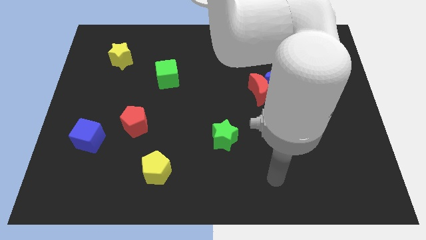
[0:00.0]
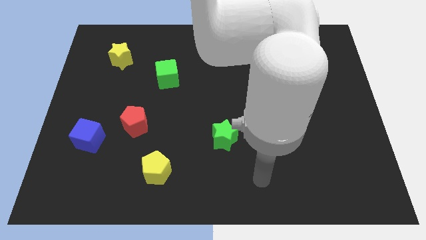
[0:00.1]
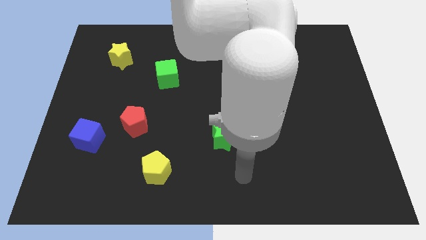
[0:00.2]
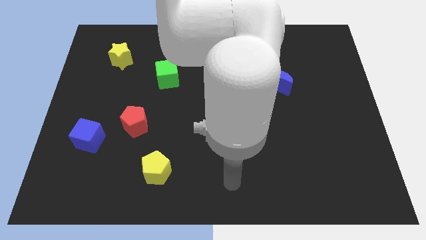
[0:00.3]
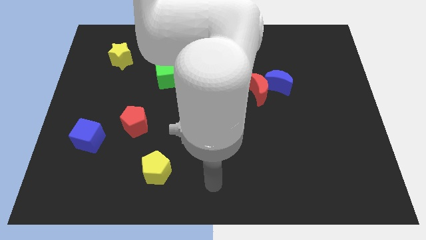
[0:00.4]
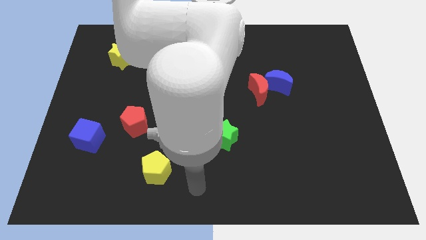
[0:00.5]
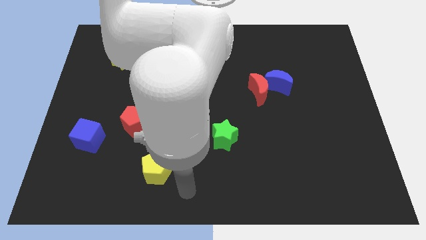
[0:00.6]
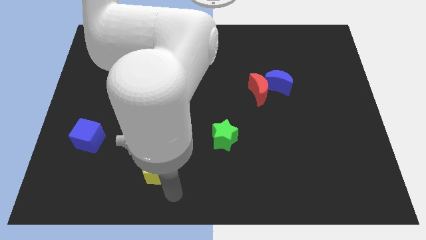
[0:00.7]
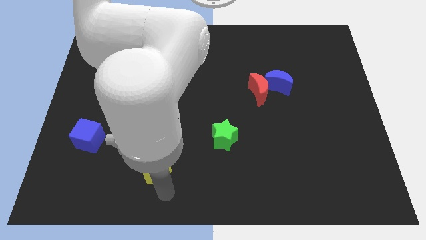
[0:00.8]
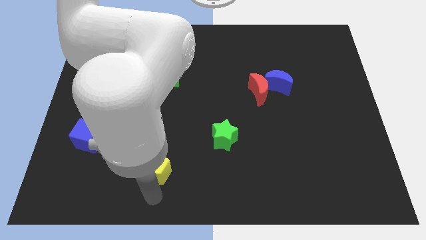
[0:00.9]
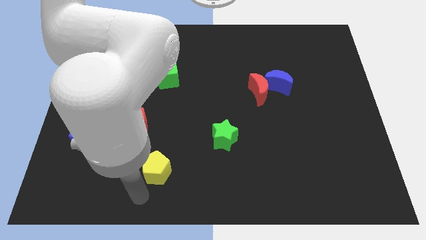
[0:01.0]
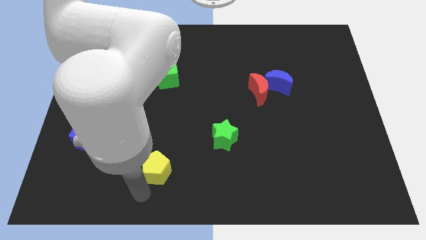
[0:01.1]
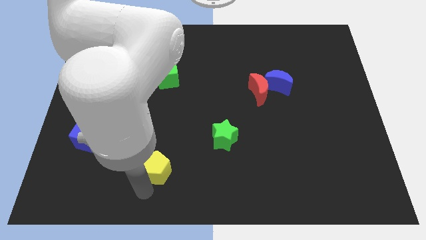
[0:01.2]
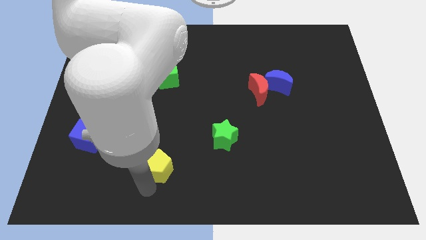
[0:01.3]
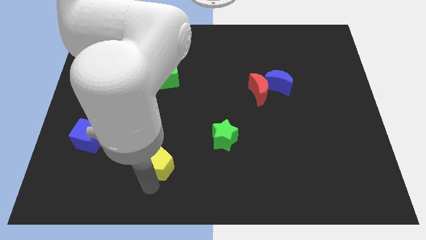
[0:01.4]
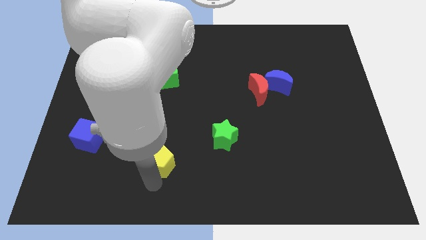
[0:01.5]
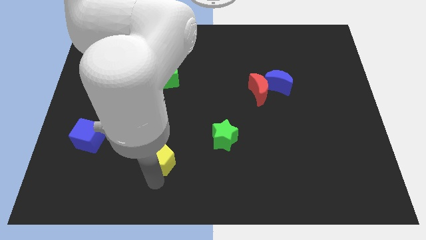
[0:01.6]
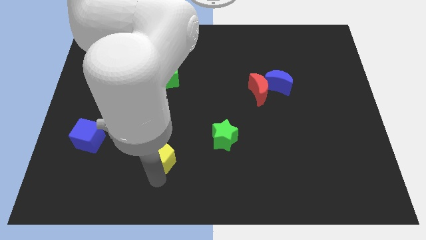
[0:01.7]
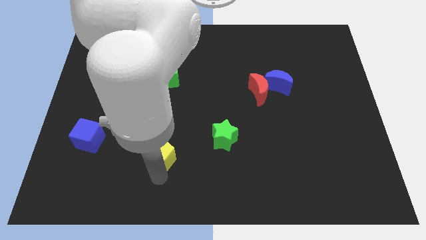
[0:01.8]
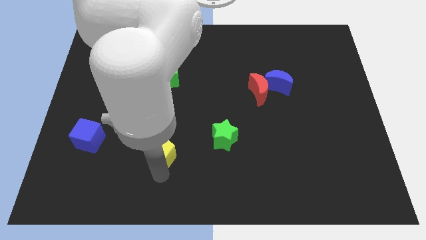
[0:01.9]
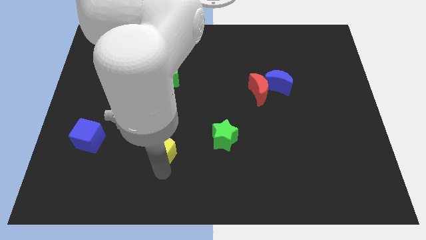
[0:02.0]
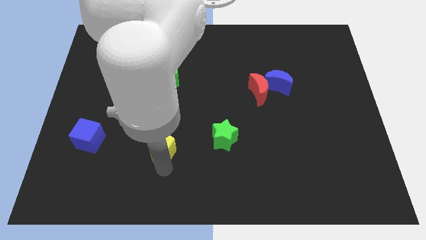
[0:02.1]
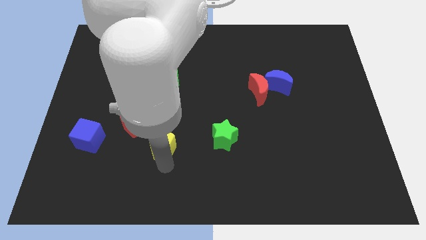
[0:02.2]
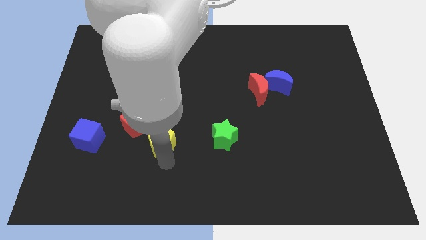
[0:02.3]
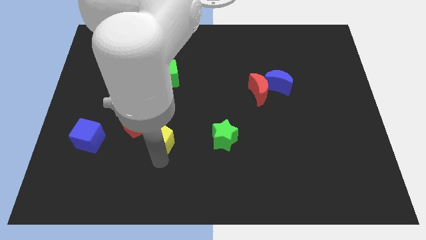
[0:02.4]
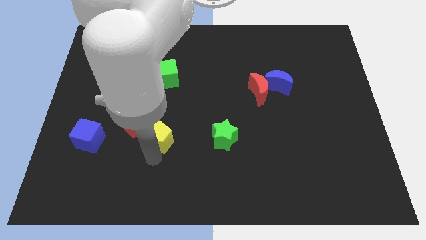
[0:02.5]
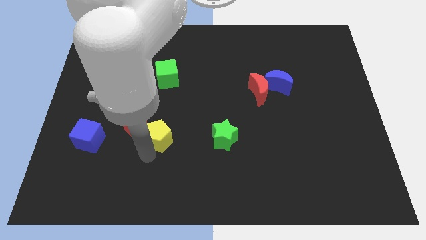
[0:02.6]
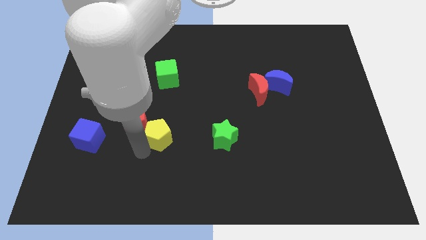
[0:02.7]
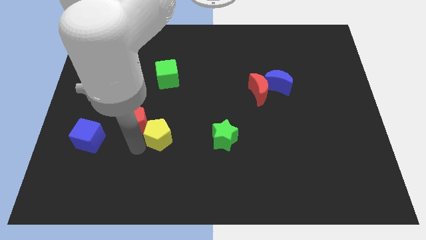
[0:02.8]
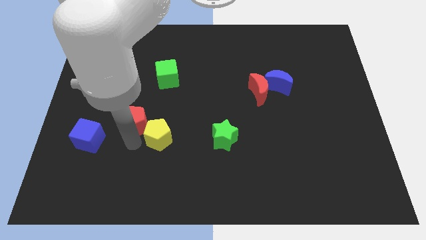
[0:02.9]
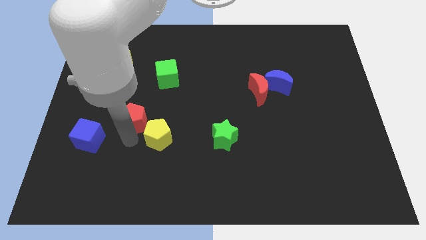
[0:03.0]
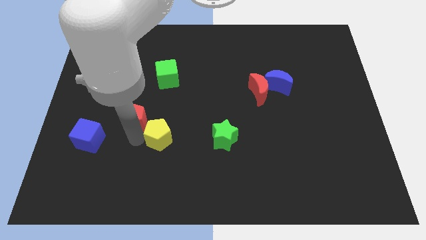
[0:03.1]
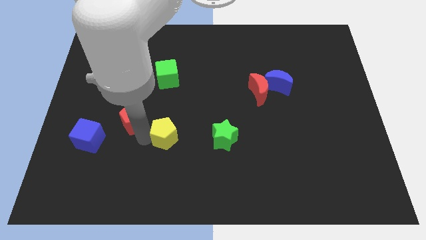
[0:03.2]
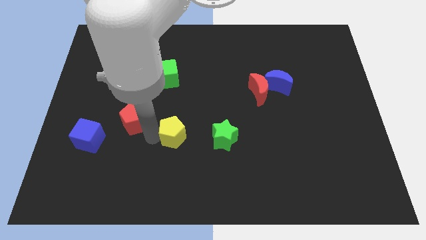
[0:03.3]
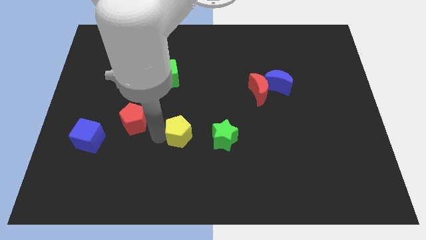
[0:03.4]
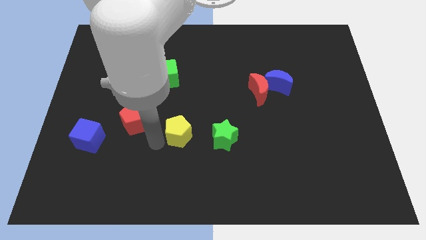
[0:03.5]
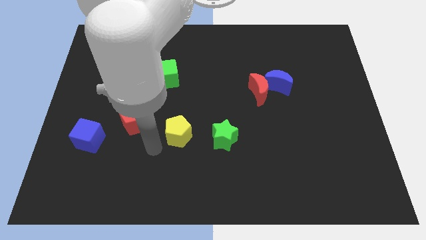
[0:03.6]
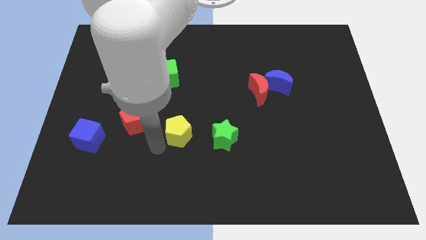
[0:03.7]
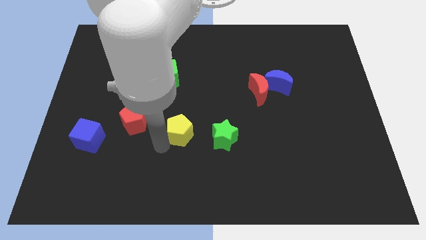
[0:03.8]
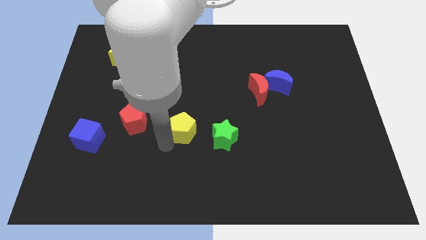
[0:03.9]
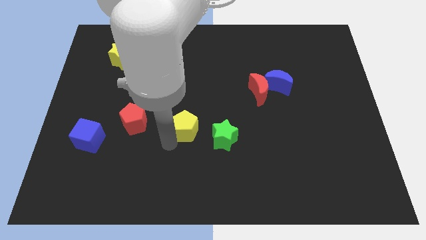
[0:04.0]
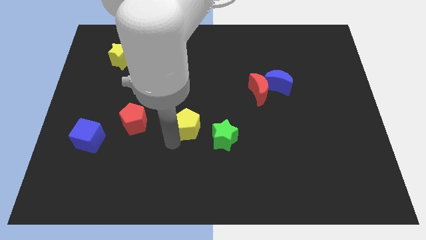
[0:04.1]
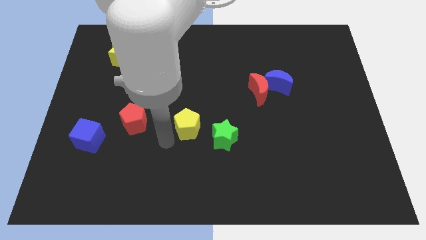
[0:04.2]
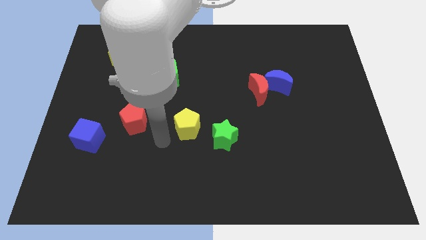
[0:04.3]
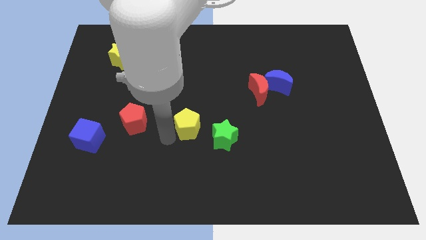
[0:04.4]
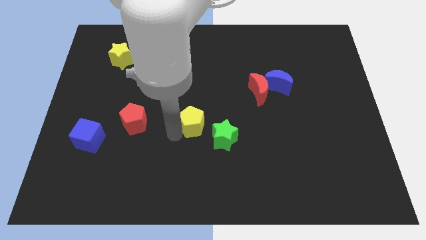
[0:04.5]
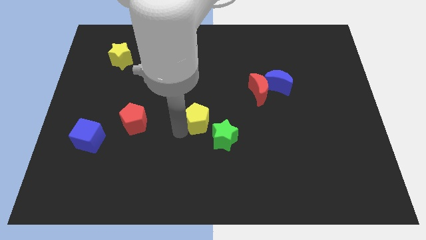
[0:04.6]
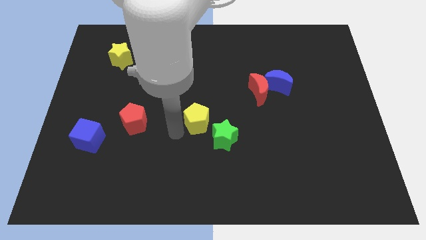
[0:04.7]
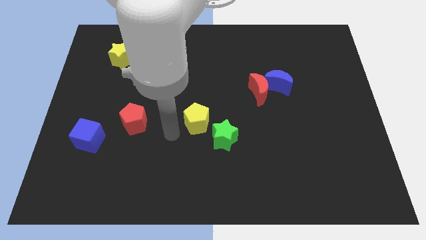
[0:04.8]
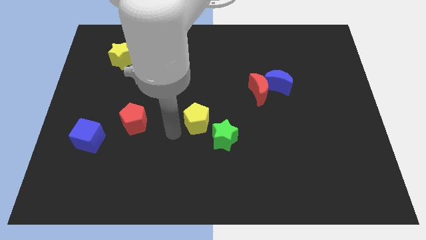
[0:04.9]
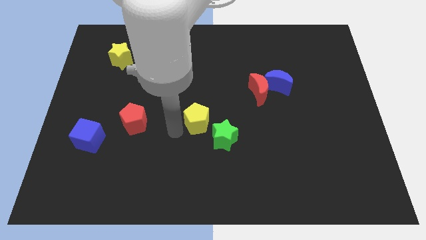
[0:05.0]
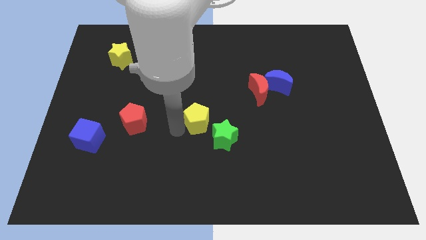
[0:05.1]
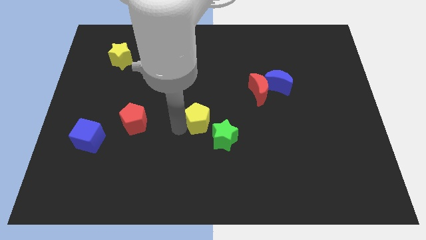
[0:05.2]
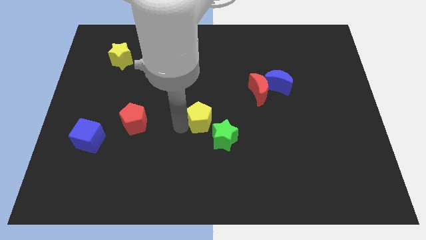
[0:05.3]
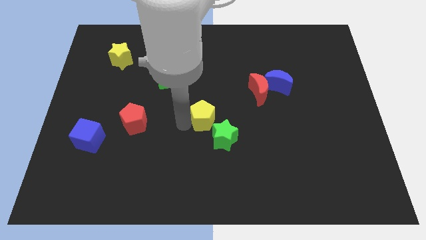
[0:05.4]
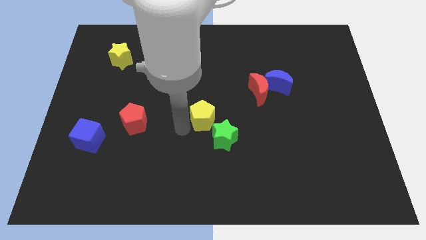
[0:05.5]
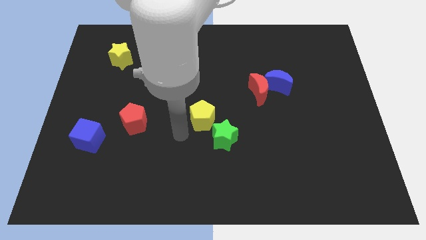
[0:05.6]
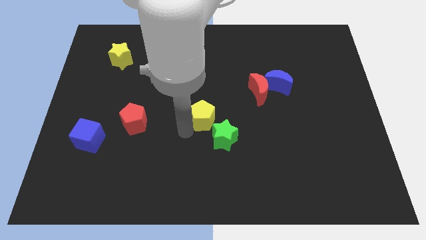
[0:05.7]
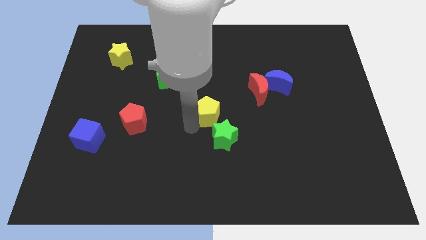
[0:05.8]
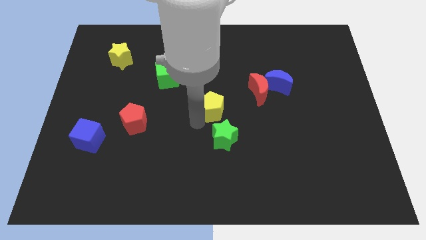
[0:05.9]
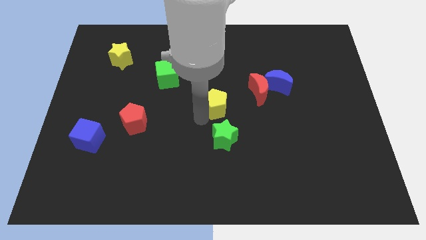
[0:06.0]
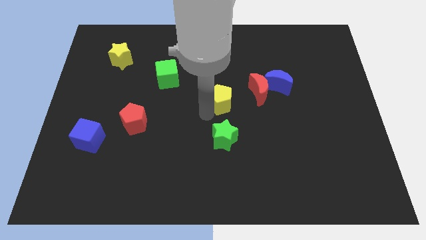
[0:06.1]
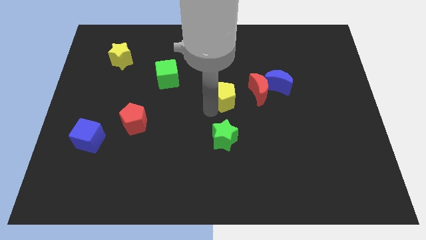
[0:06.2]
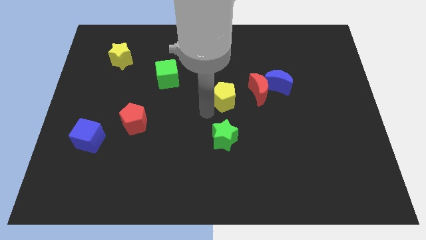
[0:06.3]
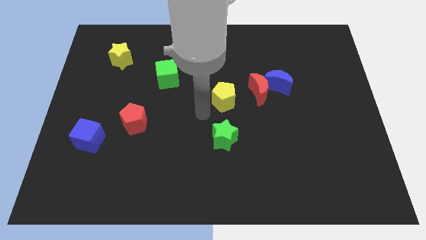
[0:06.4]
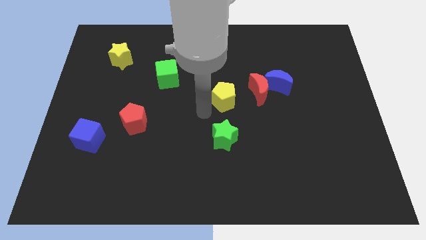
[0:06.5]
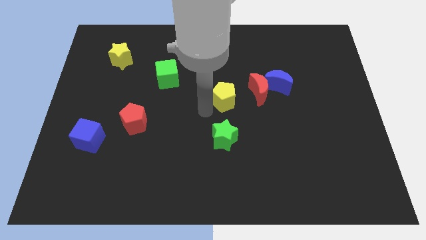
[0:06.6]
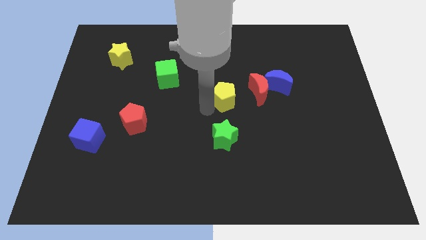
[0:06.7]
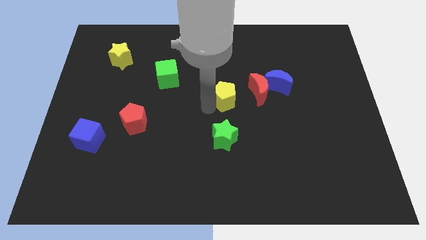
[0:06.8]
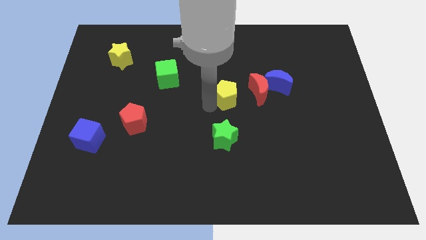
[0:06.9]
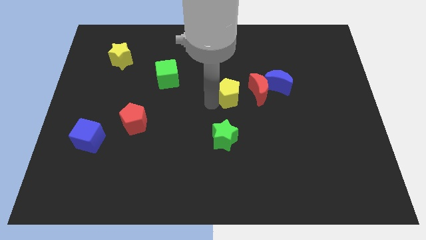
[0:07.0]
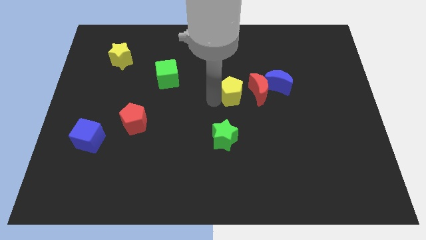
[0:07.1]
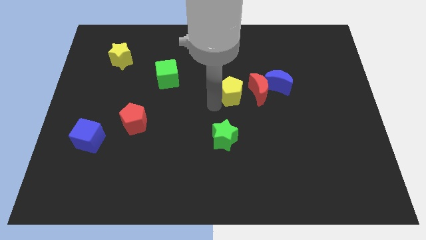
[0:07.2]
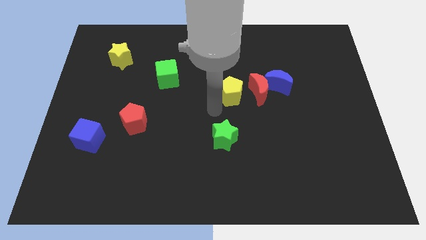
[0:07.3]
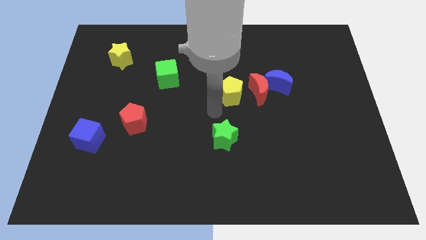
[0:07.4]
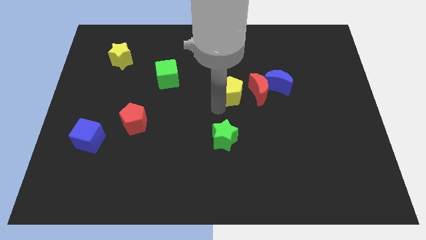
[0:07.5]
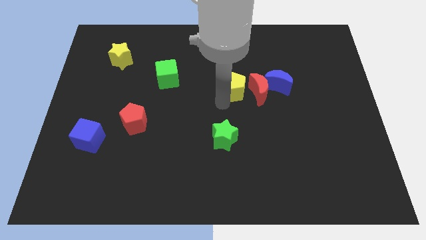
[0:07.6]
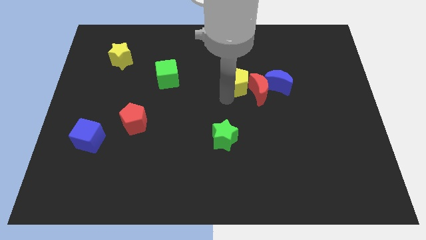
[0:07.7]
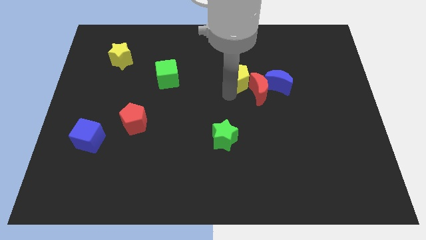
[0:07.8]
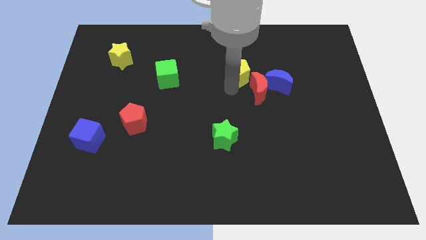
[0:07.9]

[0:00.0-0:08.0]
push the yellow pentagon to the top left side of the blue moon
